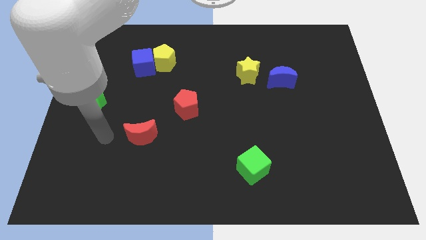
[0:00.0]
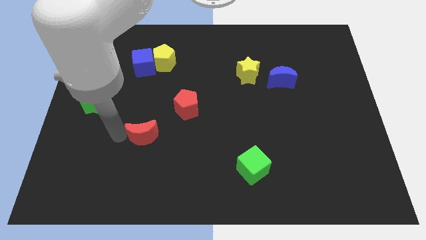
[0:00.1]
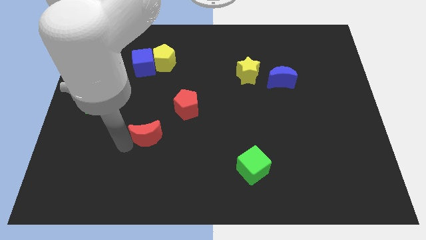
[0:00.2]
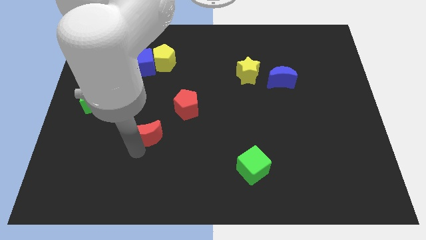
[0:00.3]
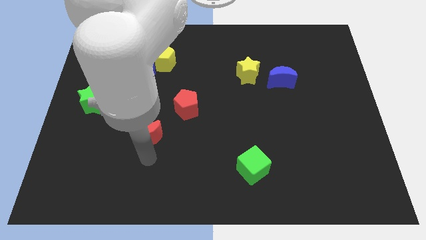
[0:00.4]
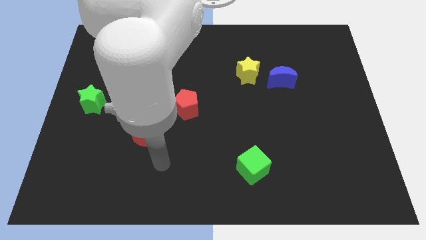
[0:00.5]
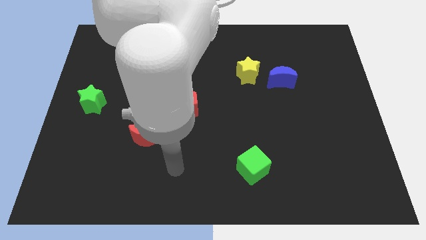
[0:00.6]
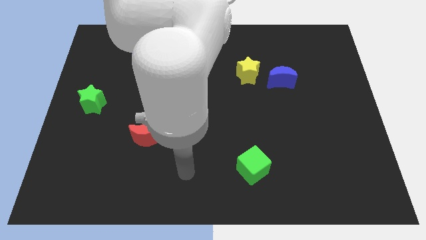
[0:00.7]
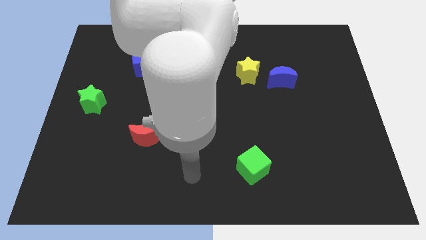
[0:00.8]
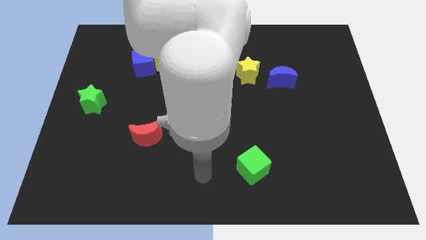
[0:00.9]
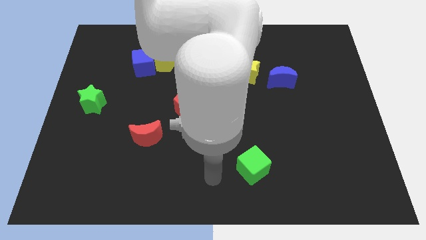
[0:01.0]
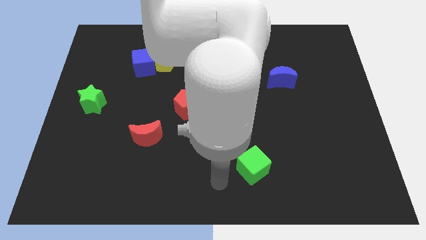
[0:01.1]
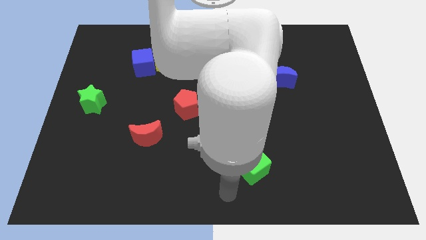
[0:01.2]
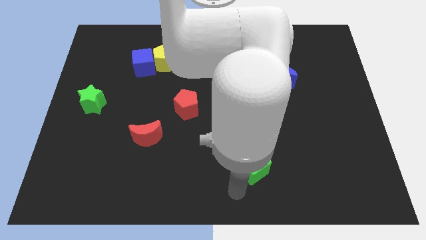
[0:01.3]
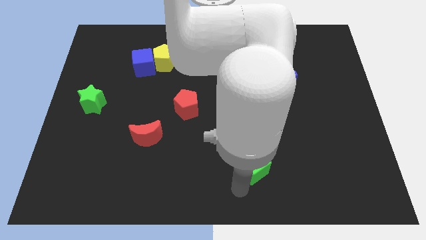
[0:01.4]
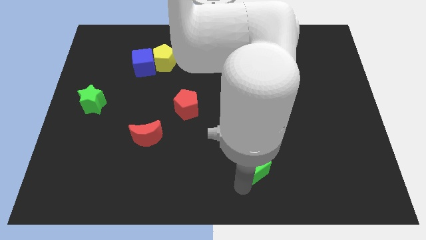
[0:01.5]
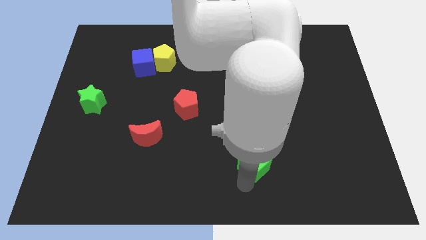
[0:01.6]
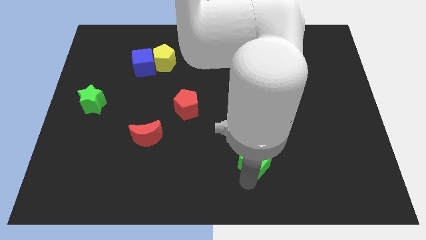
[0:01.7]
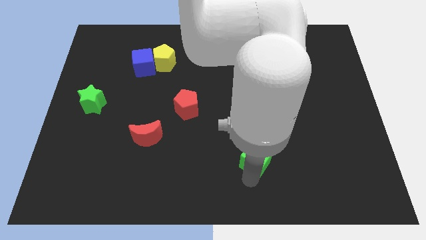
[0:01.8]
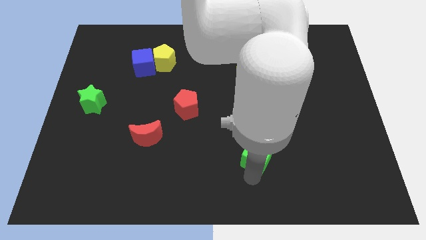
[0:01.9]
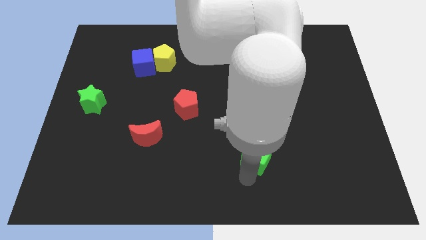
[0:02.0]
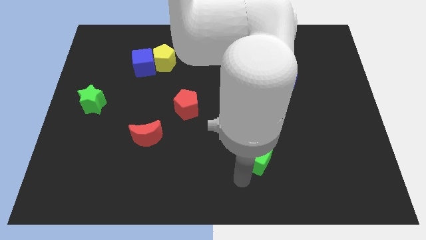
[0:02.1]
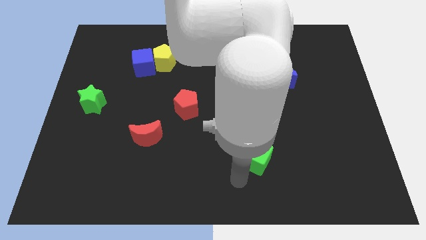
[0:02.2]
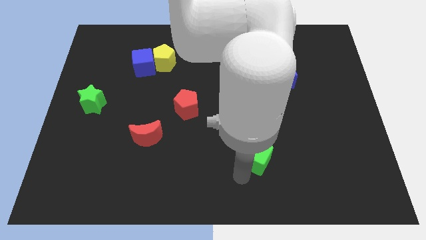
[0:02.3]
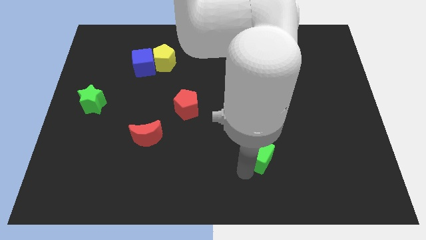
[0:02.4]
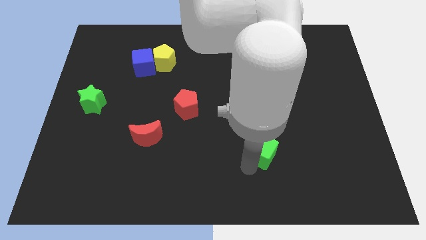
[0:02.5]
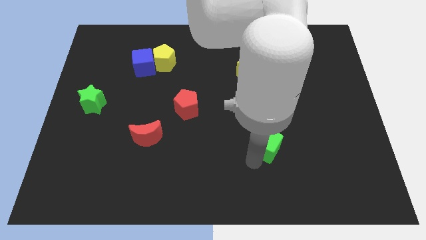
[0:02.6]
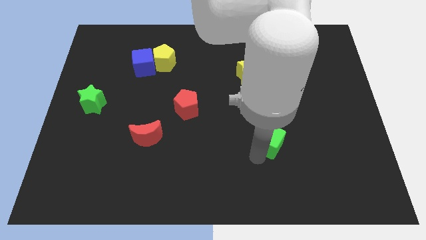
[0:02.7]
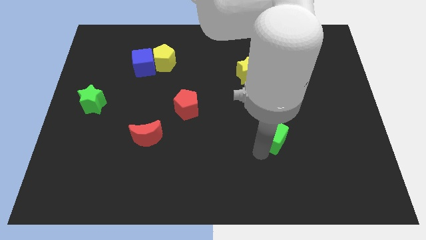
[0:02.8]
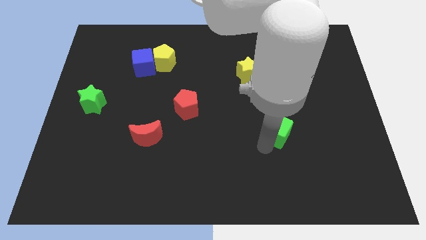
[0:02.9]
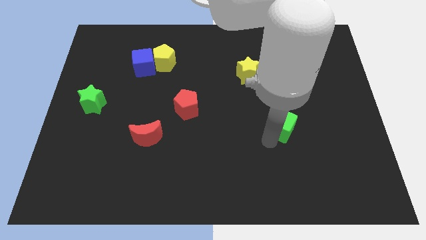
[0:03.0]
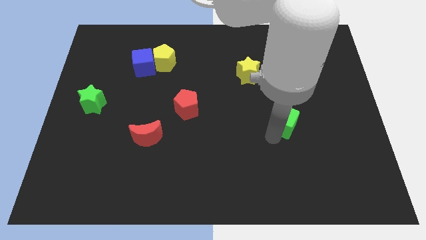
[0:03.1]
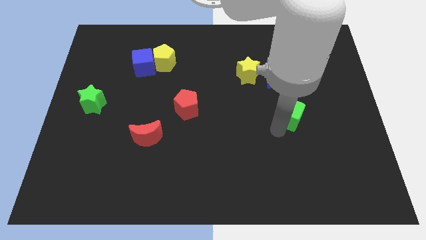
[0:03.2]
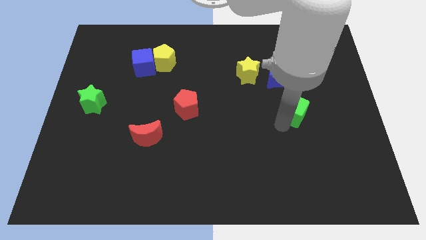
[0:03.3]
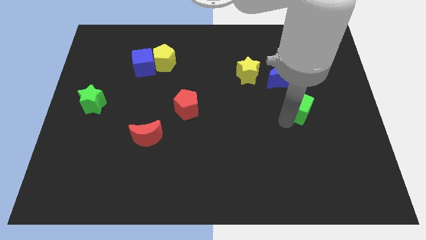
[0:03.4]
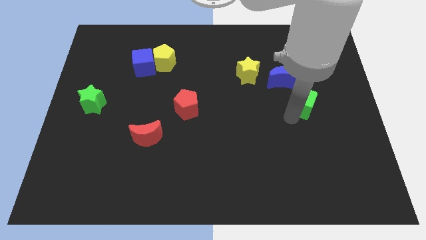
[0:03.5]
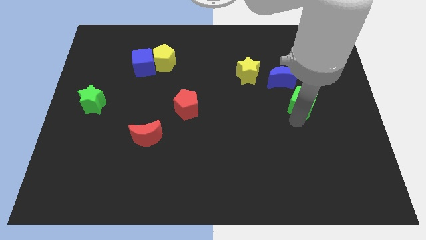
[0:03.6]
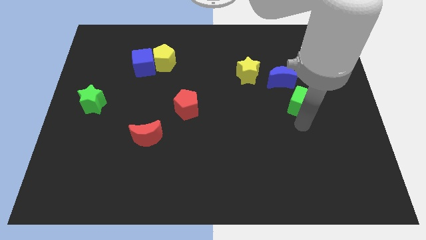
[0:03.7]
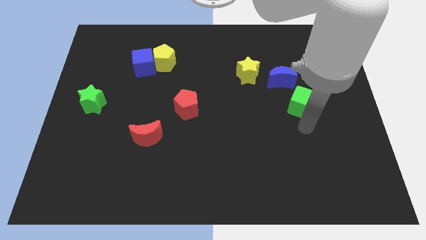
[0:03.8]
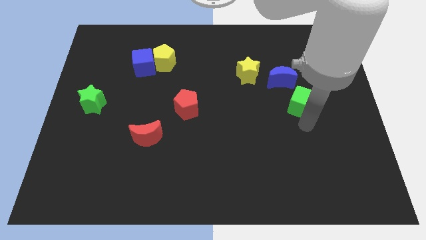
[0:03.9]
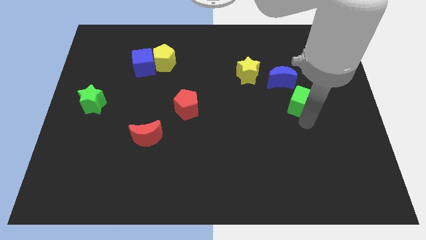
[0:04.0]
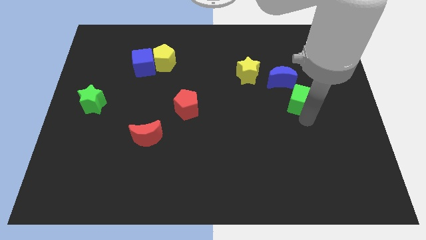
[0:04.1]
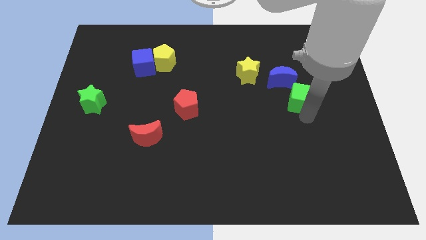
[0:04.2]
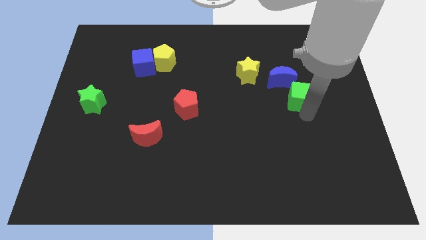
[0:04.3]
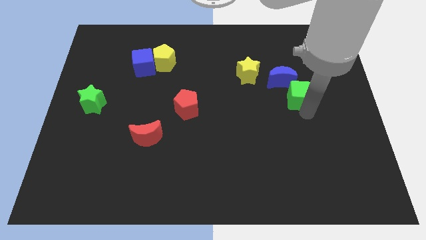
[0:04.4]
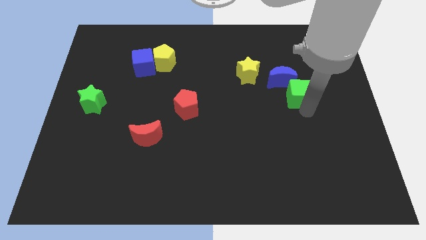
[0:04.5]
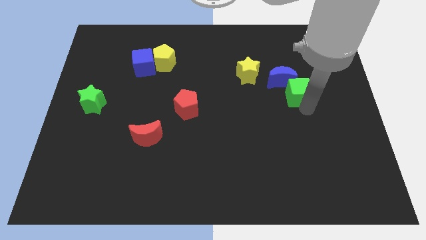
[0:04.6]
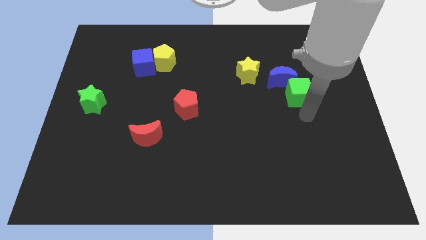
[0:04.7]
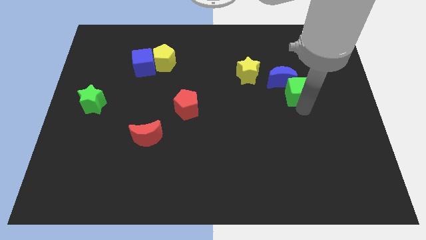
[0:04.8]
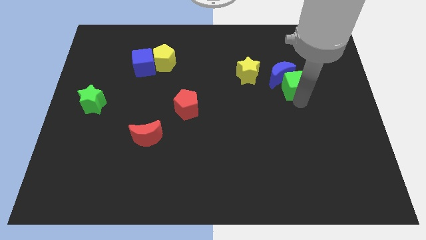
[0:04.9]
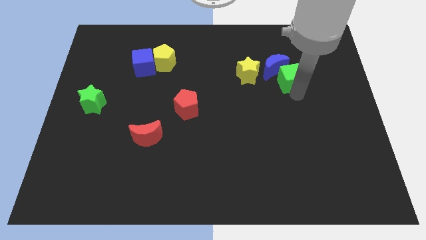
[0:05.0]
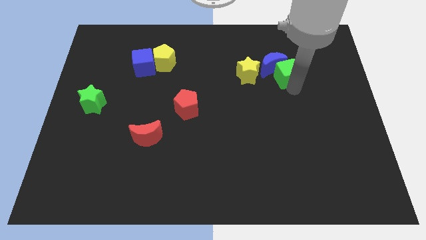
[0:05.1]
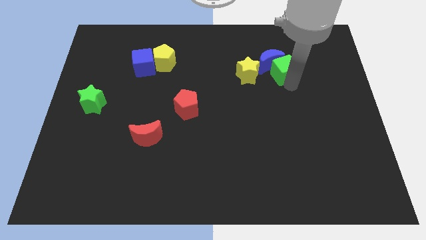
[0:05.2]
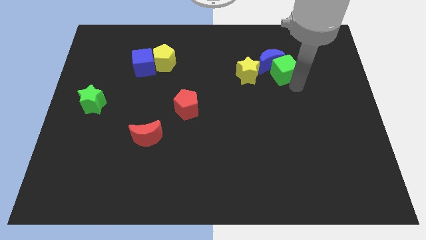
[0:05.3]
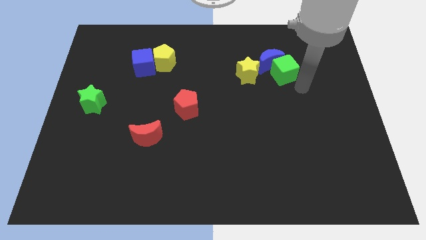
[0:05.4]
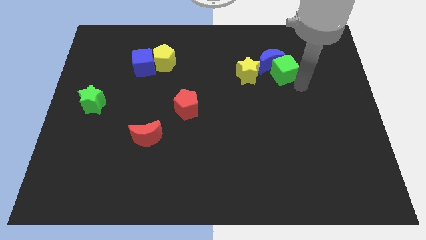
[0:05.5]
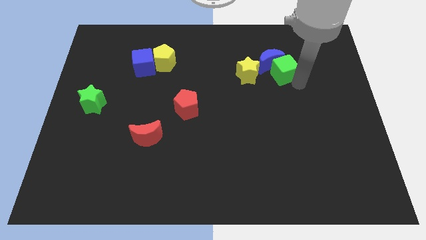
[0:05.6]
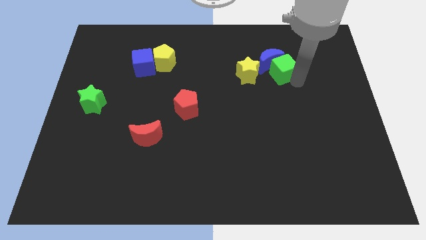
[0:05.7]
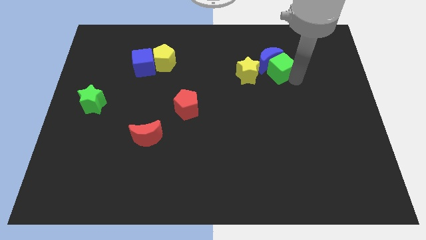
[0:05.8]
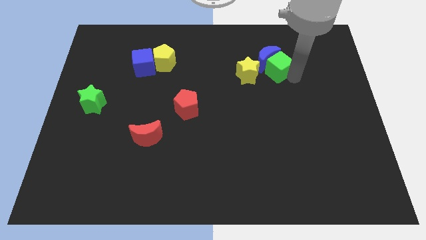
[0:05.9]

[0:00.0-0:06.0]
put the green cube to the top right of the yellow star
